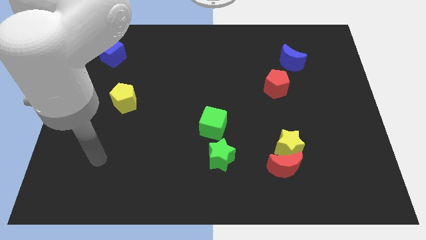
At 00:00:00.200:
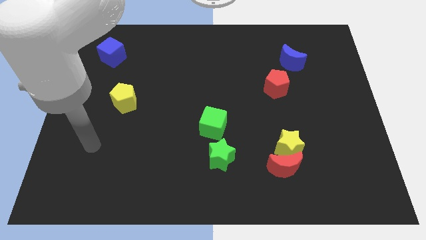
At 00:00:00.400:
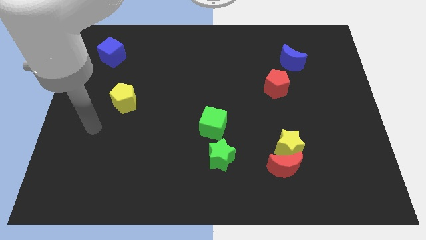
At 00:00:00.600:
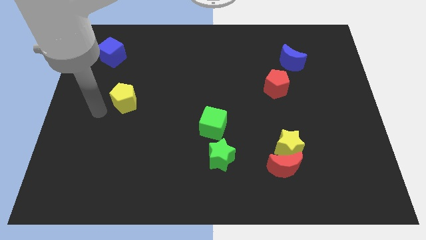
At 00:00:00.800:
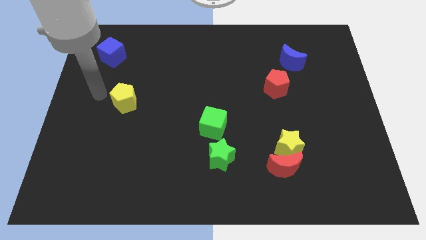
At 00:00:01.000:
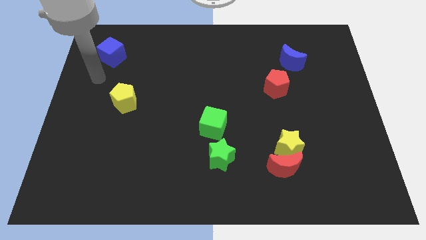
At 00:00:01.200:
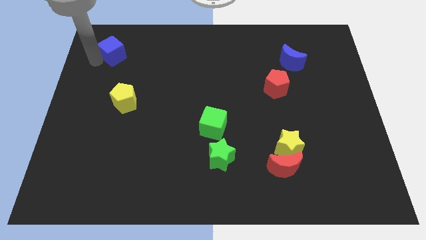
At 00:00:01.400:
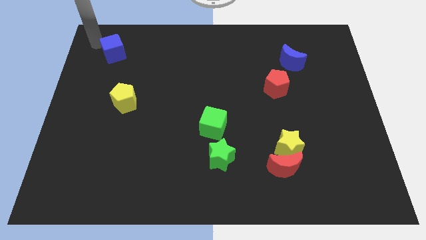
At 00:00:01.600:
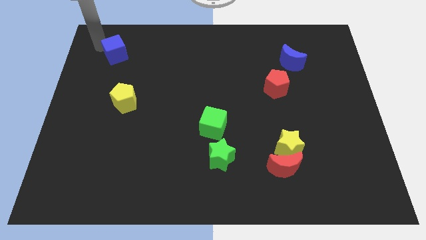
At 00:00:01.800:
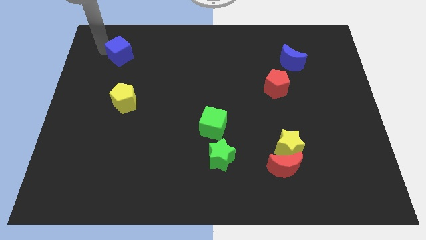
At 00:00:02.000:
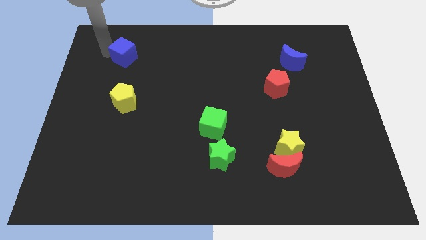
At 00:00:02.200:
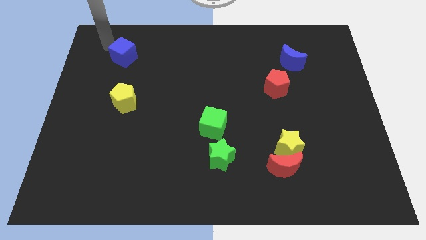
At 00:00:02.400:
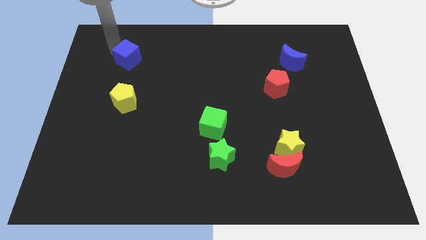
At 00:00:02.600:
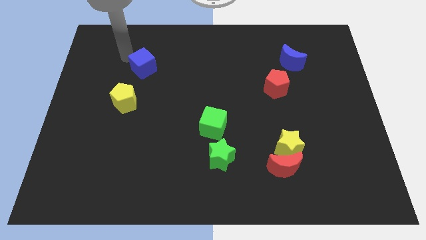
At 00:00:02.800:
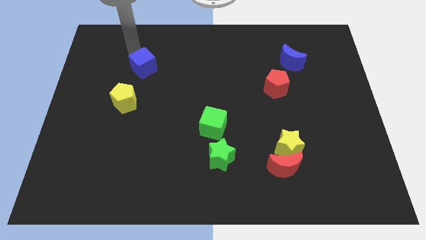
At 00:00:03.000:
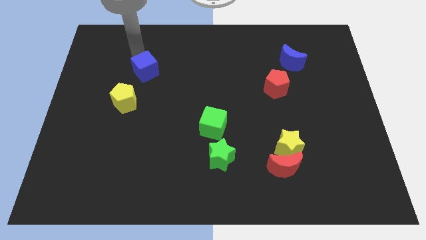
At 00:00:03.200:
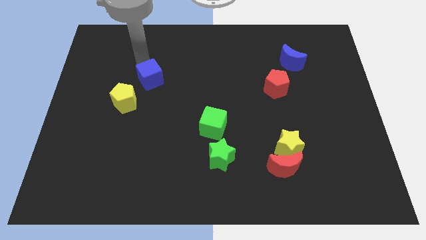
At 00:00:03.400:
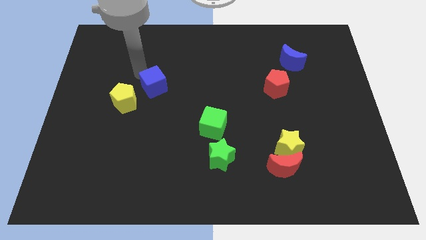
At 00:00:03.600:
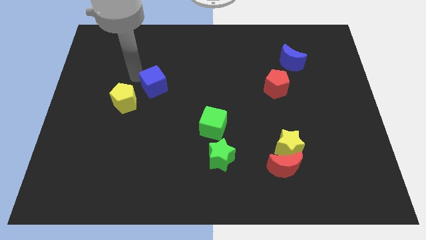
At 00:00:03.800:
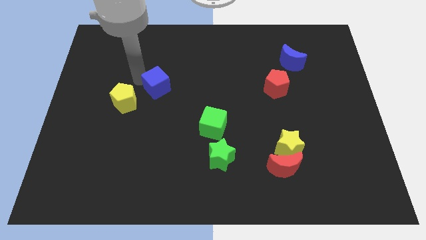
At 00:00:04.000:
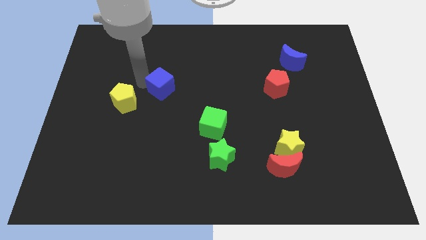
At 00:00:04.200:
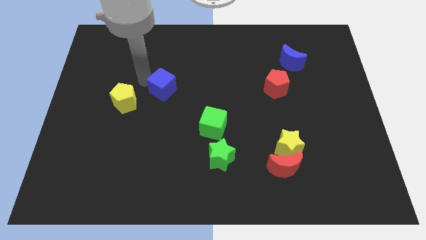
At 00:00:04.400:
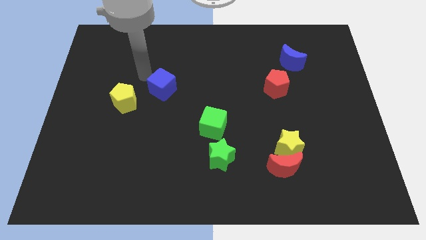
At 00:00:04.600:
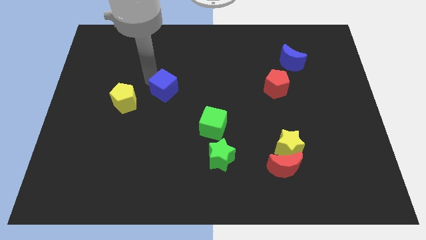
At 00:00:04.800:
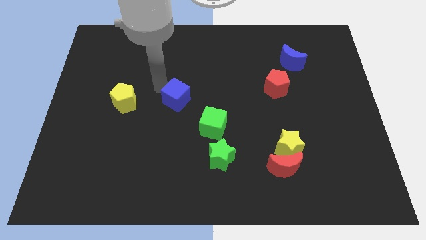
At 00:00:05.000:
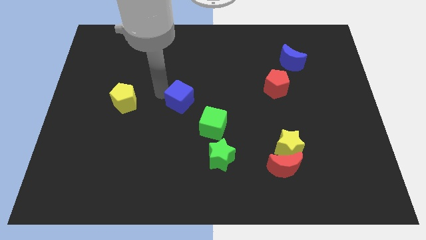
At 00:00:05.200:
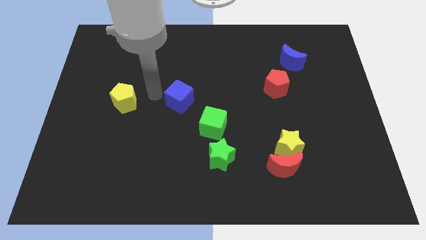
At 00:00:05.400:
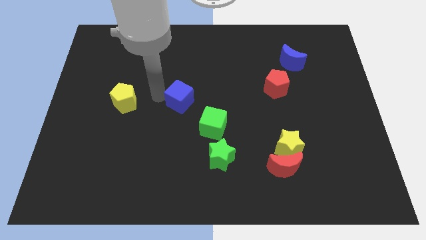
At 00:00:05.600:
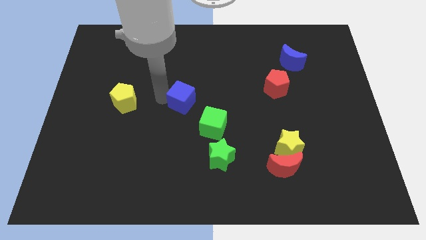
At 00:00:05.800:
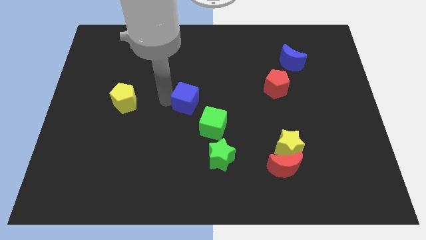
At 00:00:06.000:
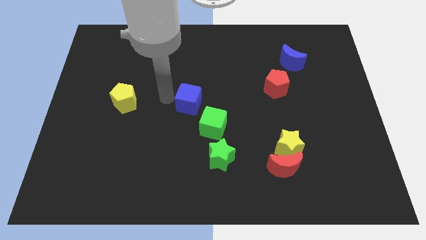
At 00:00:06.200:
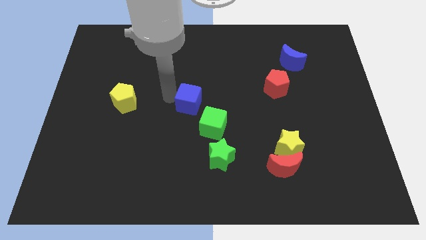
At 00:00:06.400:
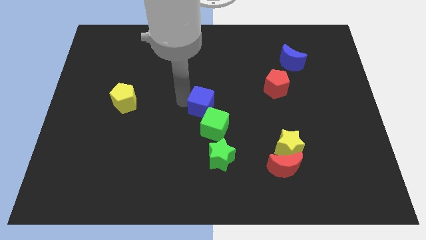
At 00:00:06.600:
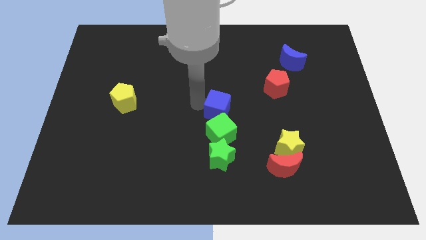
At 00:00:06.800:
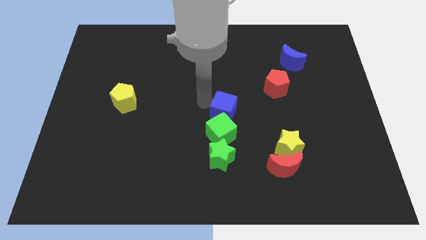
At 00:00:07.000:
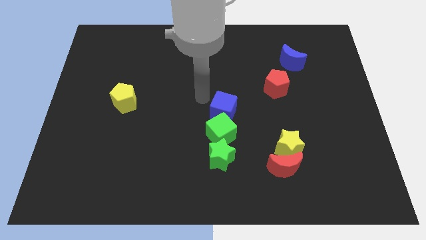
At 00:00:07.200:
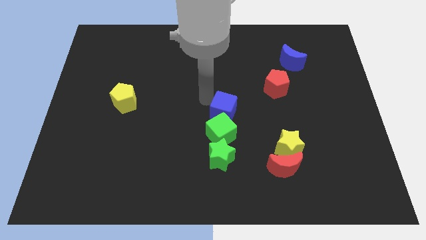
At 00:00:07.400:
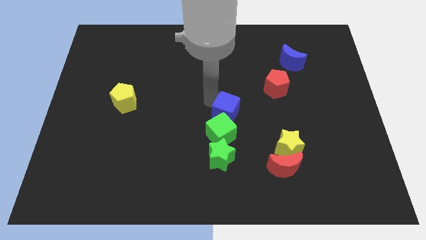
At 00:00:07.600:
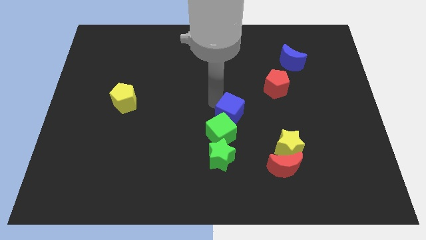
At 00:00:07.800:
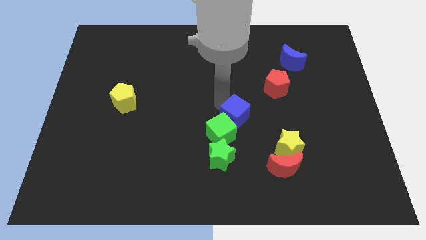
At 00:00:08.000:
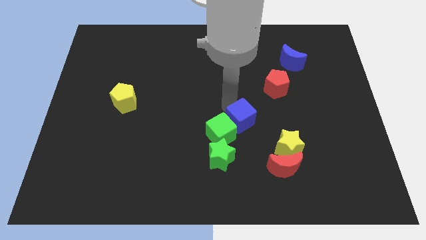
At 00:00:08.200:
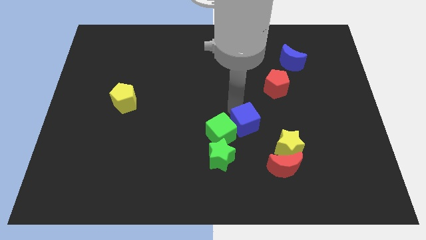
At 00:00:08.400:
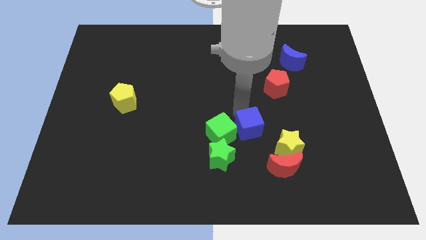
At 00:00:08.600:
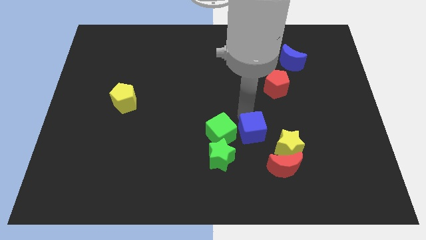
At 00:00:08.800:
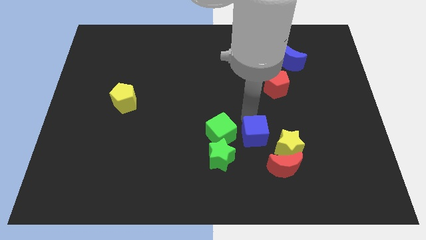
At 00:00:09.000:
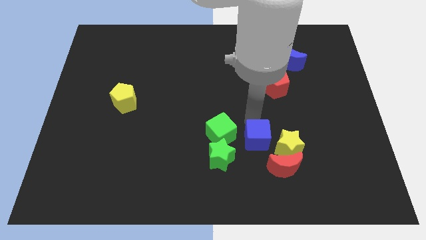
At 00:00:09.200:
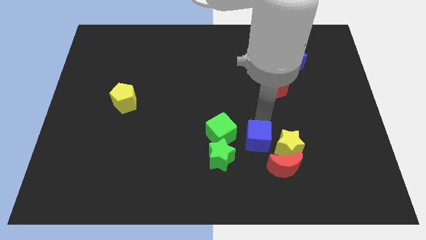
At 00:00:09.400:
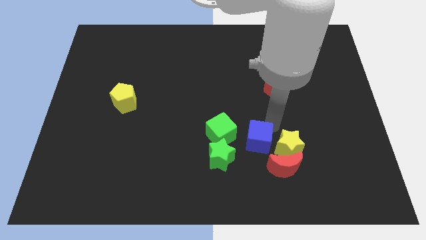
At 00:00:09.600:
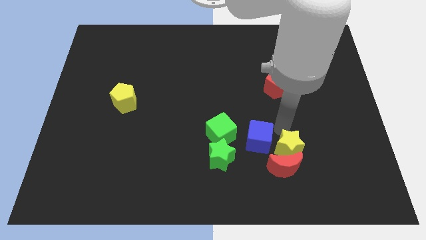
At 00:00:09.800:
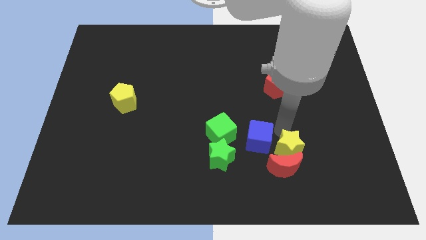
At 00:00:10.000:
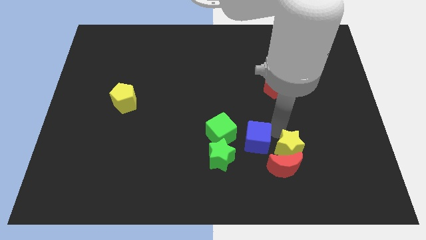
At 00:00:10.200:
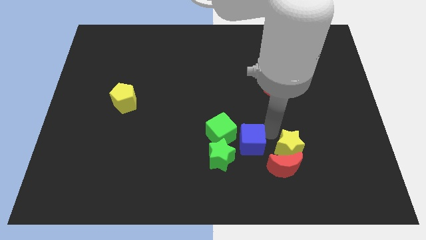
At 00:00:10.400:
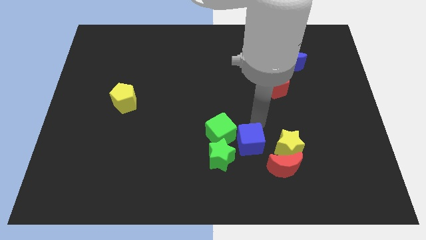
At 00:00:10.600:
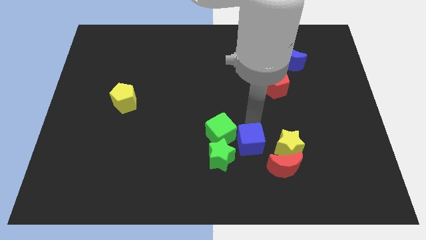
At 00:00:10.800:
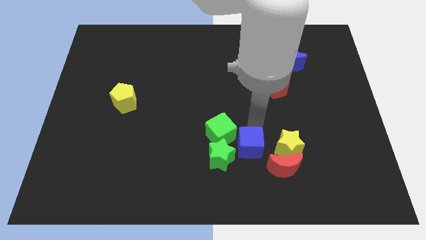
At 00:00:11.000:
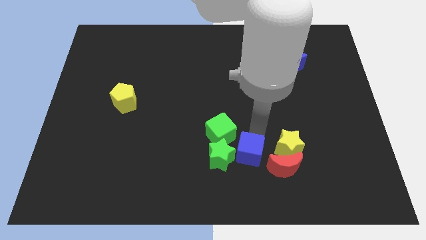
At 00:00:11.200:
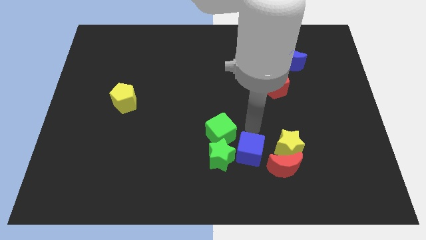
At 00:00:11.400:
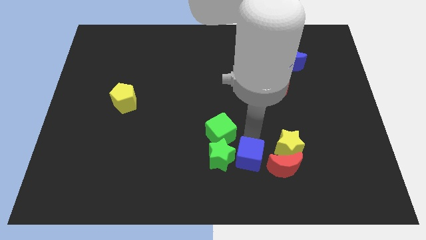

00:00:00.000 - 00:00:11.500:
put the blue cube to the bottom right side of the green star

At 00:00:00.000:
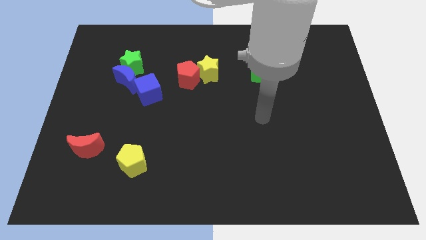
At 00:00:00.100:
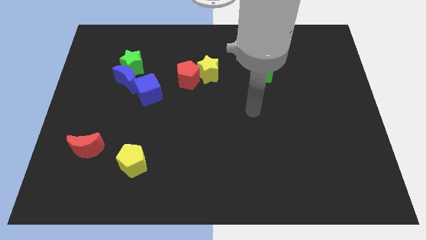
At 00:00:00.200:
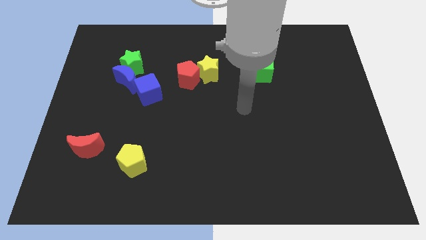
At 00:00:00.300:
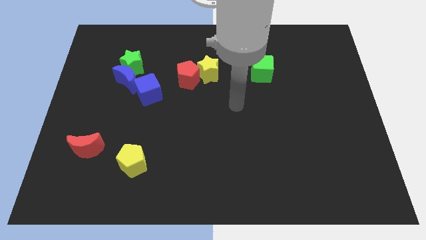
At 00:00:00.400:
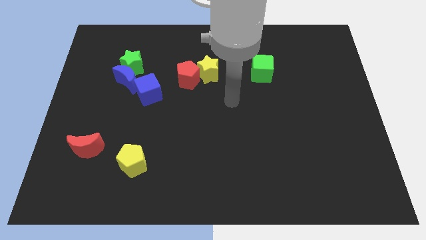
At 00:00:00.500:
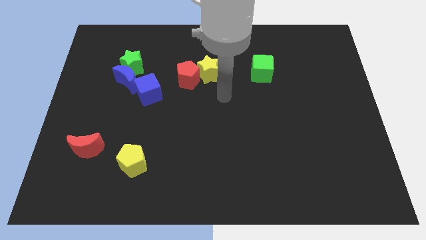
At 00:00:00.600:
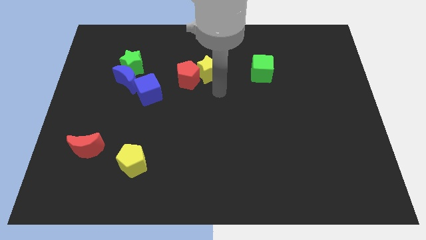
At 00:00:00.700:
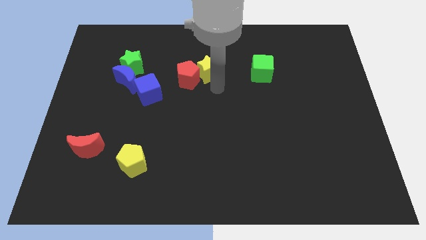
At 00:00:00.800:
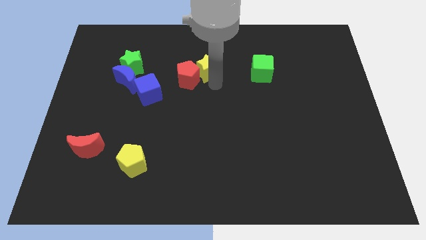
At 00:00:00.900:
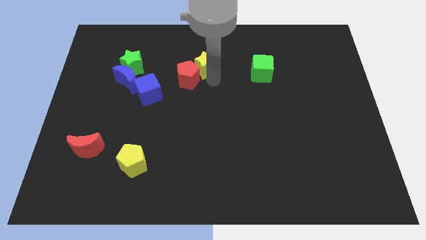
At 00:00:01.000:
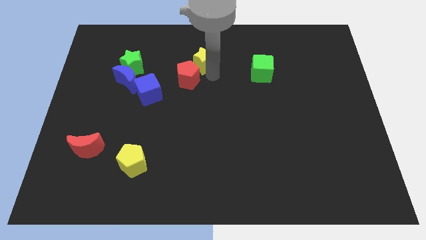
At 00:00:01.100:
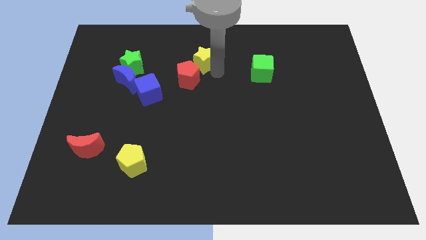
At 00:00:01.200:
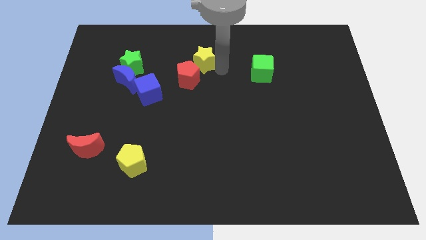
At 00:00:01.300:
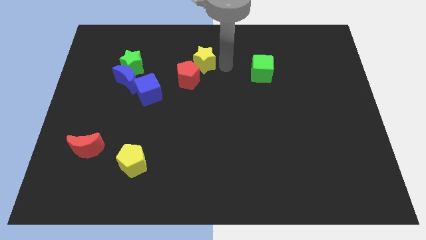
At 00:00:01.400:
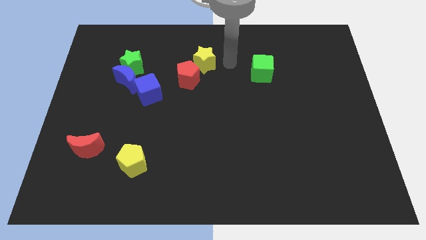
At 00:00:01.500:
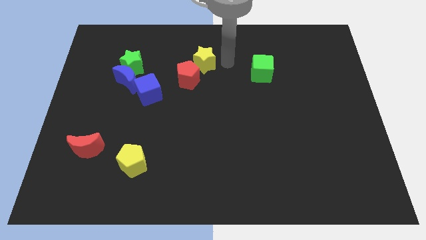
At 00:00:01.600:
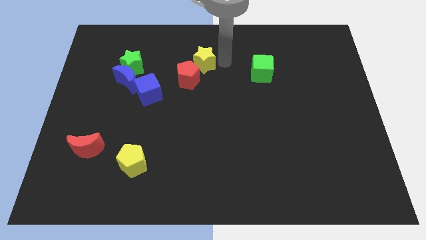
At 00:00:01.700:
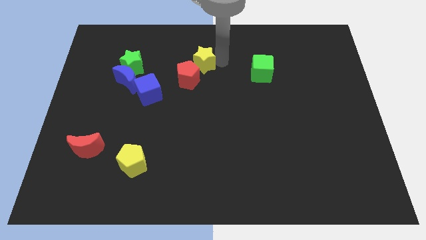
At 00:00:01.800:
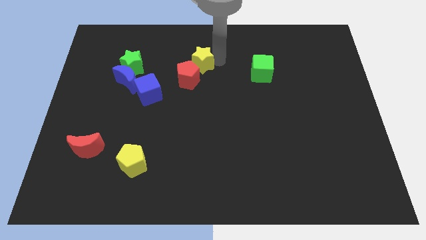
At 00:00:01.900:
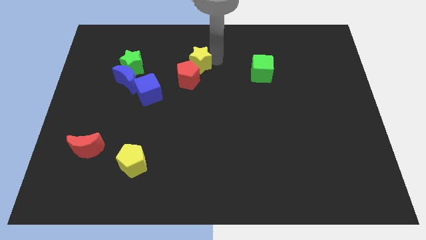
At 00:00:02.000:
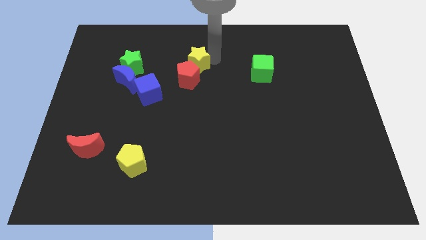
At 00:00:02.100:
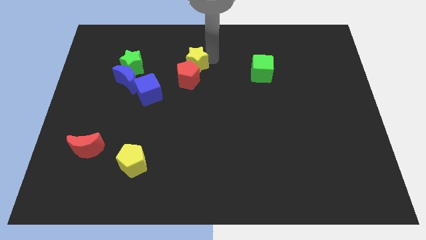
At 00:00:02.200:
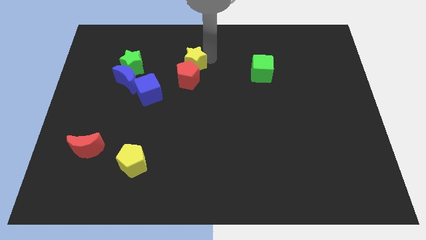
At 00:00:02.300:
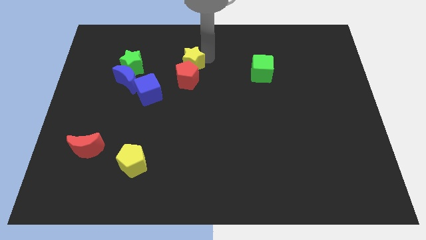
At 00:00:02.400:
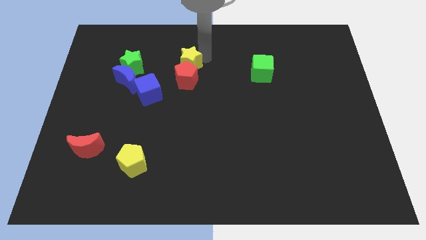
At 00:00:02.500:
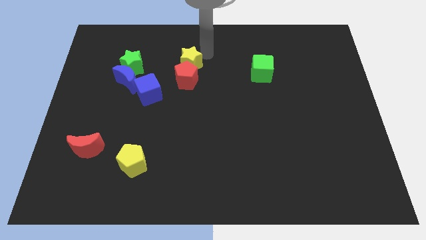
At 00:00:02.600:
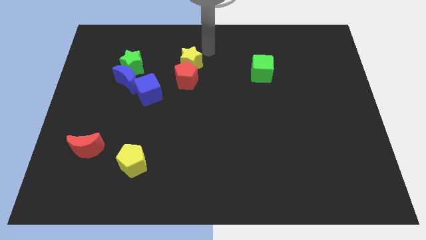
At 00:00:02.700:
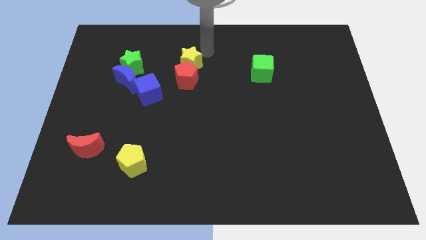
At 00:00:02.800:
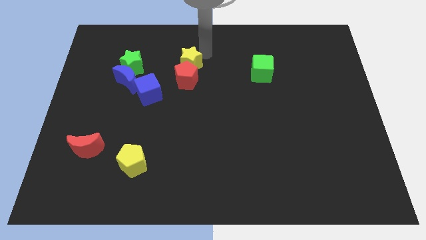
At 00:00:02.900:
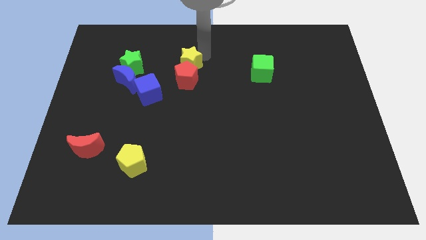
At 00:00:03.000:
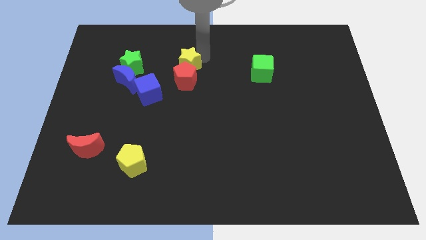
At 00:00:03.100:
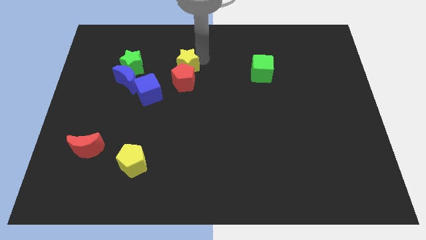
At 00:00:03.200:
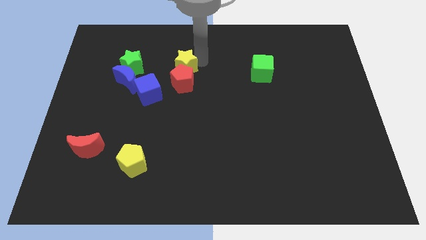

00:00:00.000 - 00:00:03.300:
put the yellow star diagonally up and to the right of the blue cube
